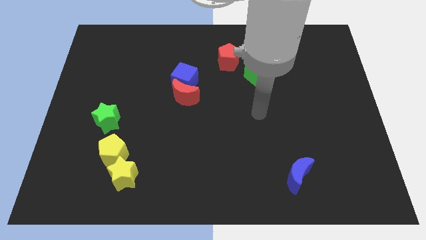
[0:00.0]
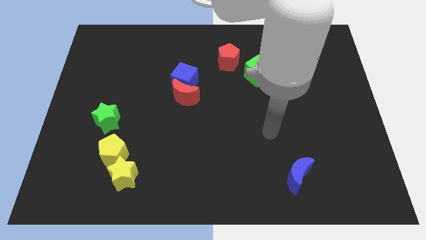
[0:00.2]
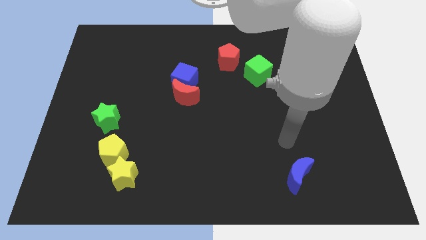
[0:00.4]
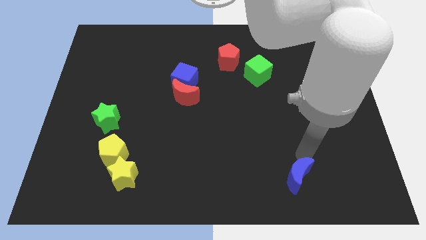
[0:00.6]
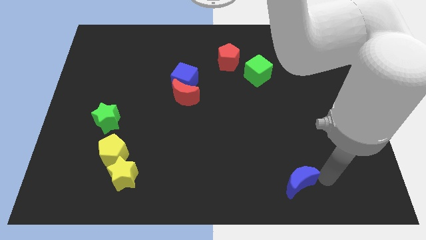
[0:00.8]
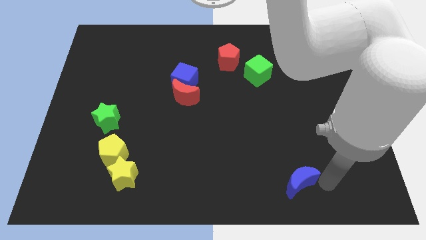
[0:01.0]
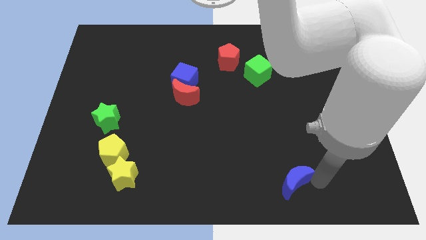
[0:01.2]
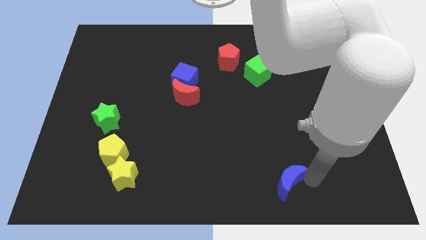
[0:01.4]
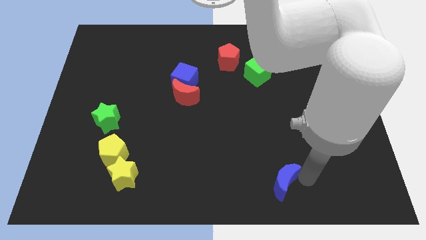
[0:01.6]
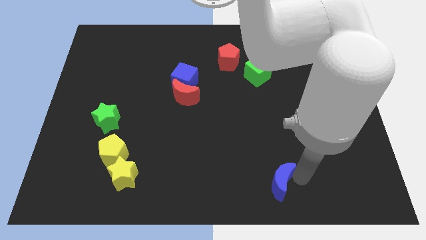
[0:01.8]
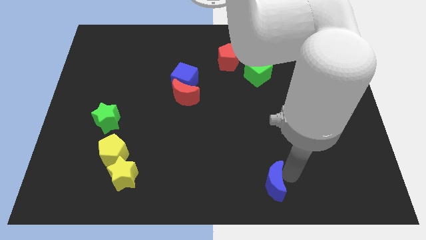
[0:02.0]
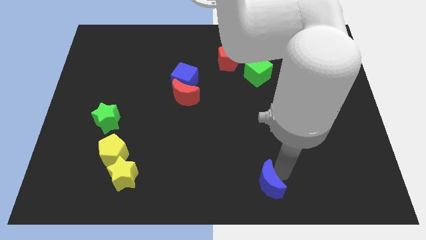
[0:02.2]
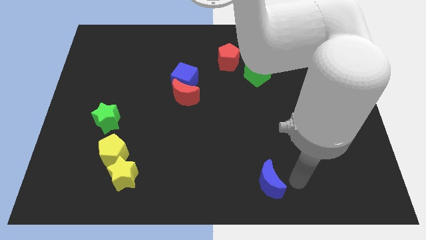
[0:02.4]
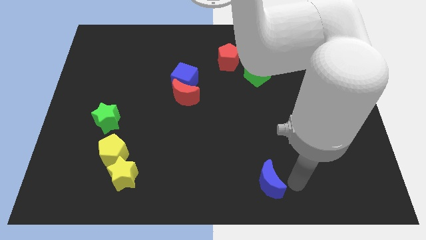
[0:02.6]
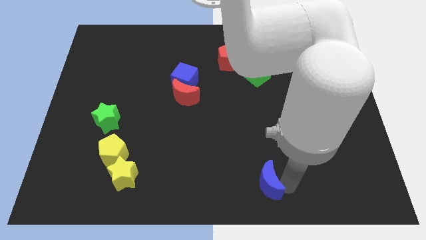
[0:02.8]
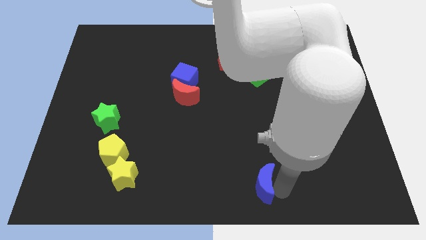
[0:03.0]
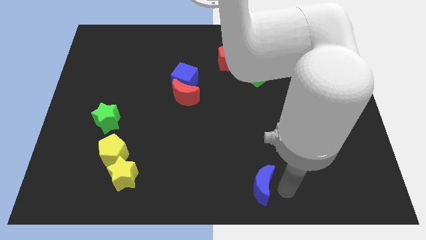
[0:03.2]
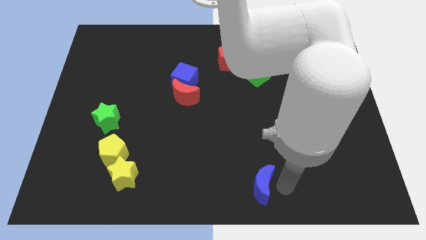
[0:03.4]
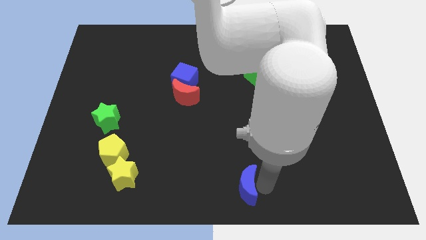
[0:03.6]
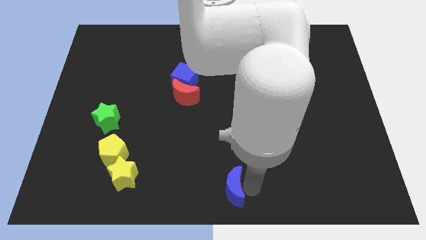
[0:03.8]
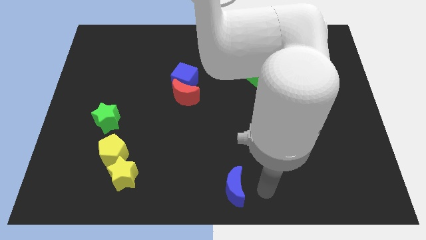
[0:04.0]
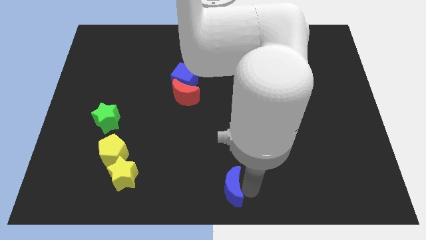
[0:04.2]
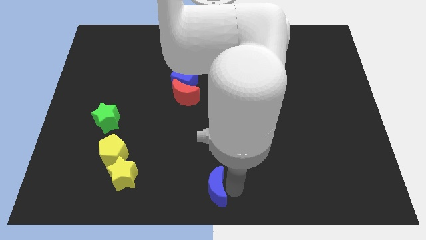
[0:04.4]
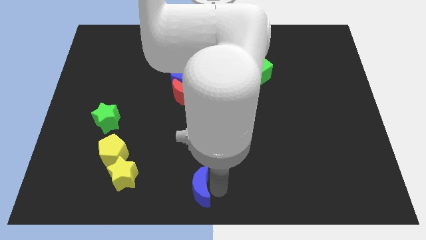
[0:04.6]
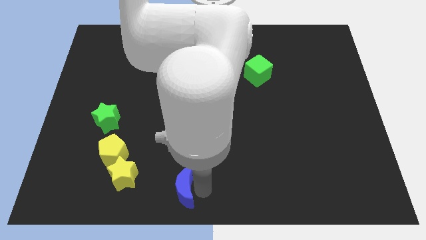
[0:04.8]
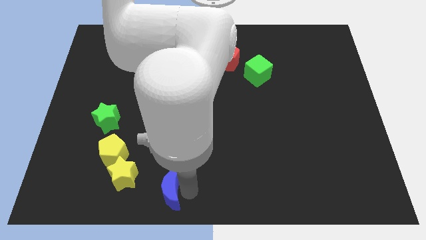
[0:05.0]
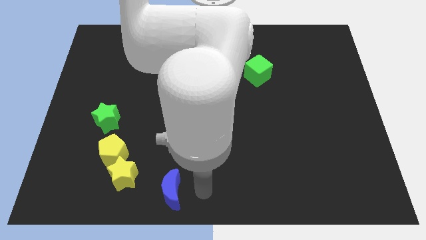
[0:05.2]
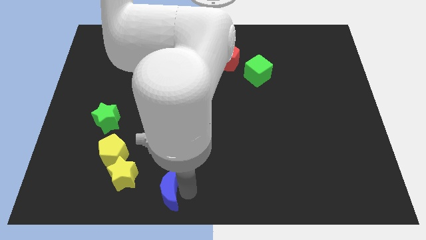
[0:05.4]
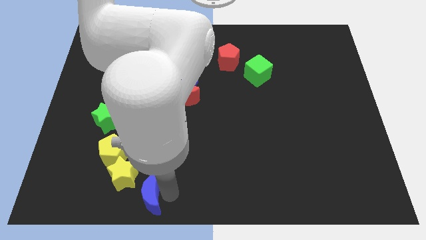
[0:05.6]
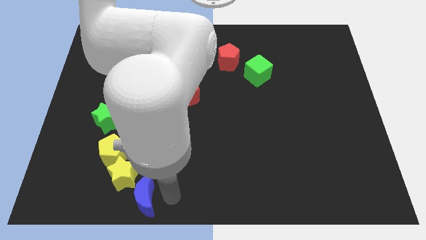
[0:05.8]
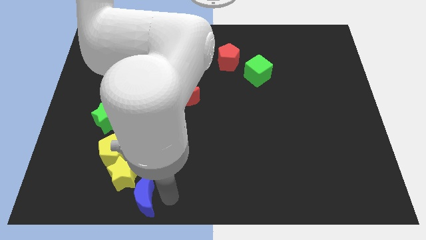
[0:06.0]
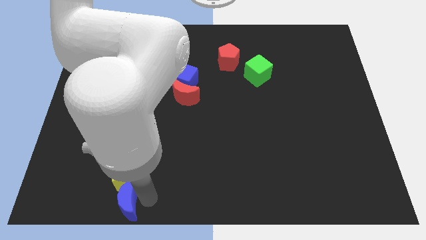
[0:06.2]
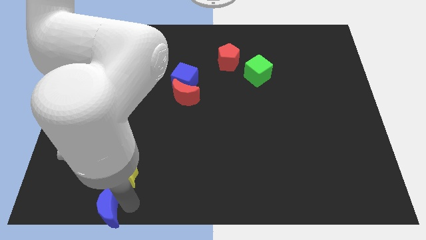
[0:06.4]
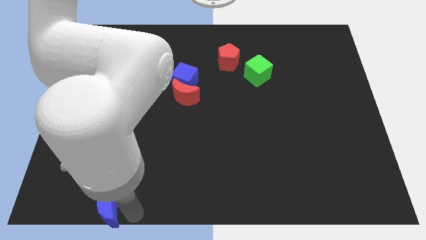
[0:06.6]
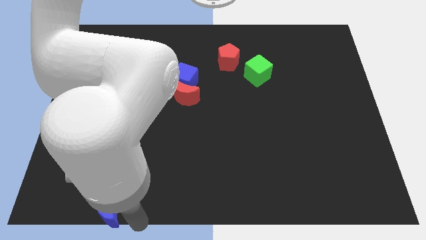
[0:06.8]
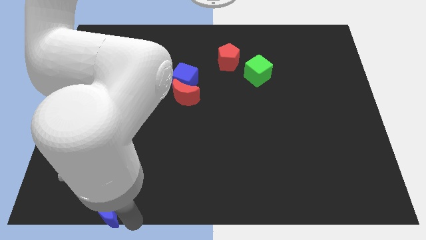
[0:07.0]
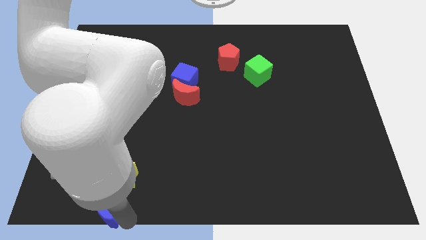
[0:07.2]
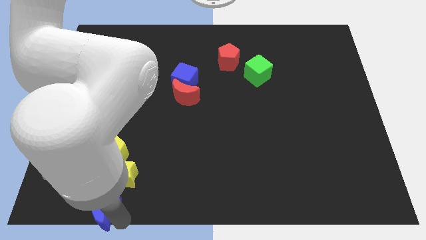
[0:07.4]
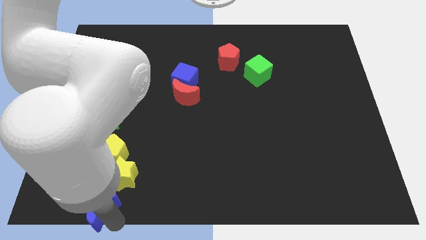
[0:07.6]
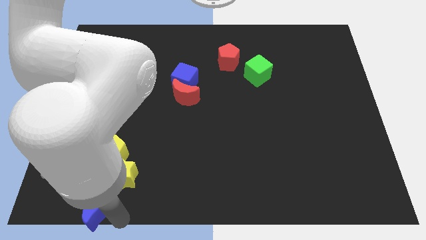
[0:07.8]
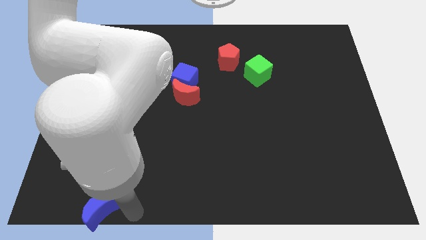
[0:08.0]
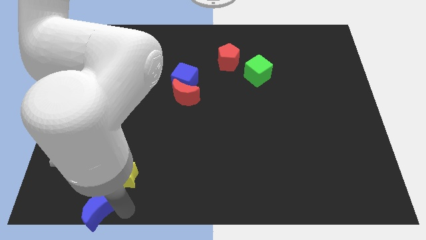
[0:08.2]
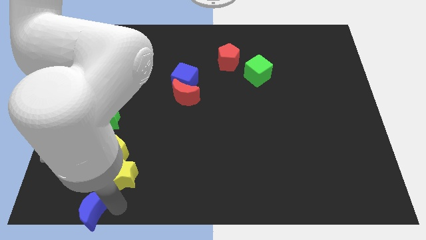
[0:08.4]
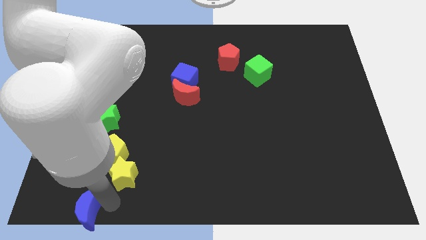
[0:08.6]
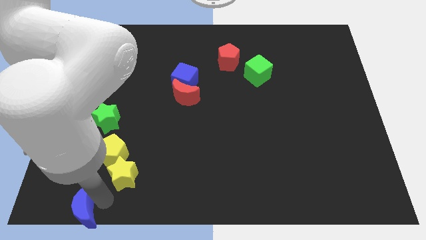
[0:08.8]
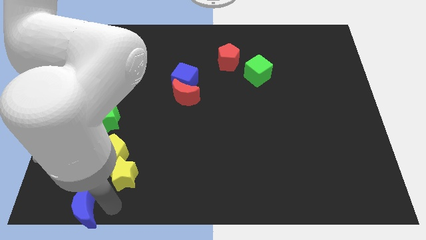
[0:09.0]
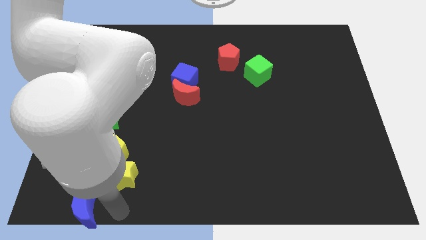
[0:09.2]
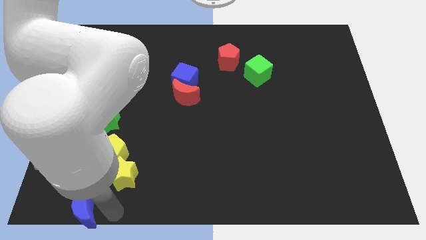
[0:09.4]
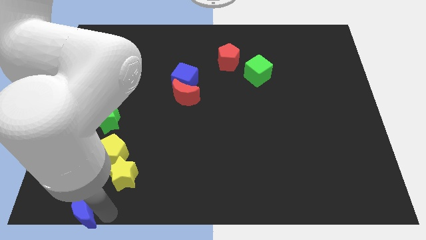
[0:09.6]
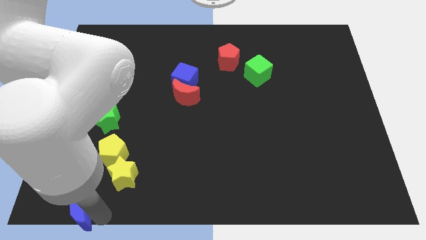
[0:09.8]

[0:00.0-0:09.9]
slide the blue moon to the bottom left corner

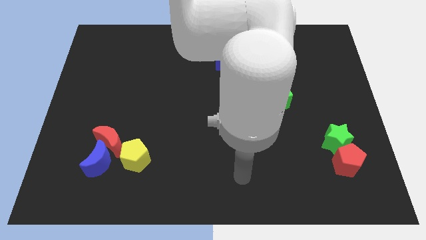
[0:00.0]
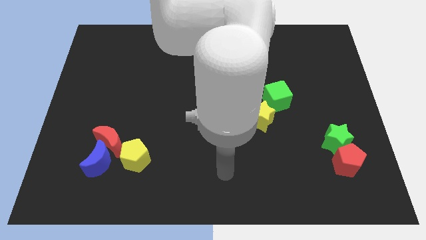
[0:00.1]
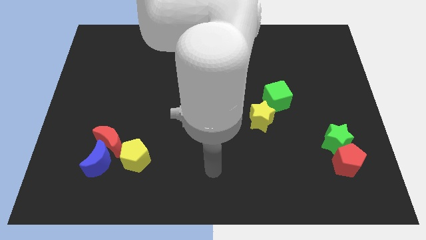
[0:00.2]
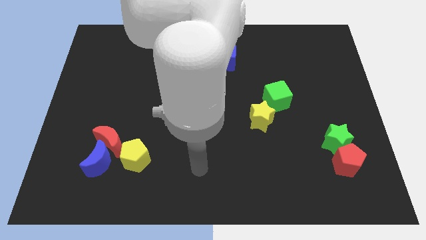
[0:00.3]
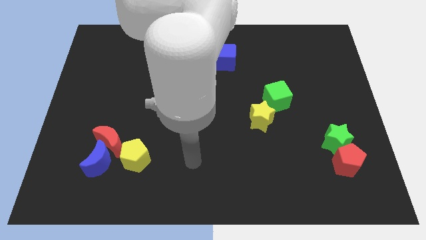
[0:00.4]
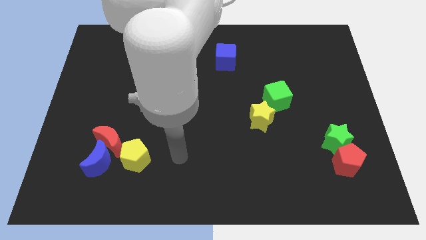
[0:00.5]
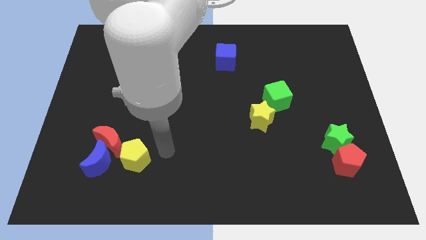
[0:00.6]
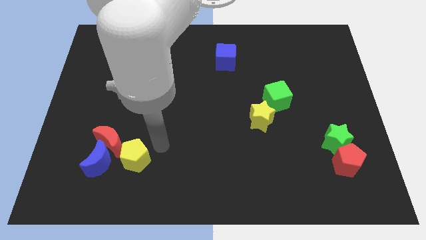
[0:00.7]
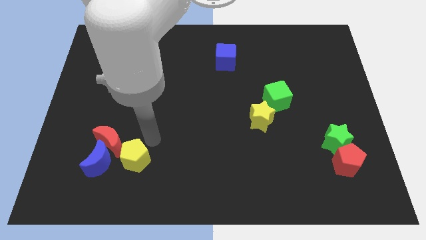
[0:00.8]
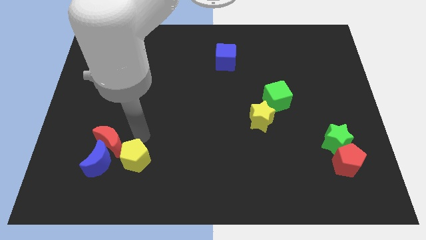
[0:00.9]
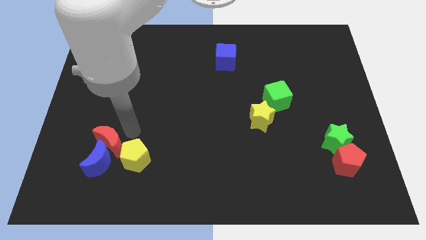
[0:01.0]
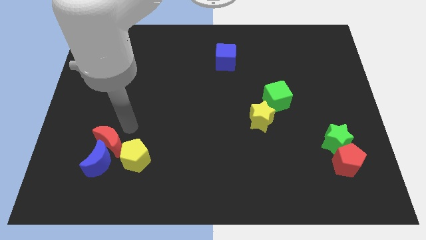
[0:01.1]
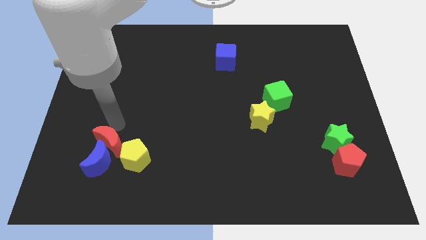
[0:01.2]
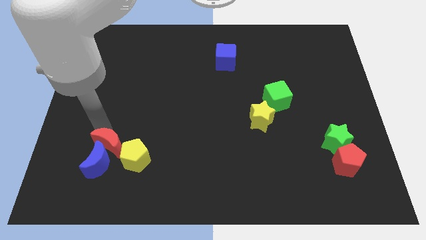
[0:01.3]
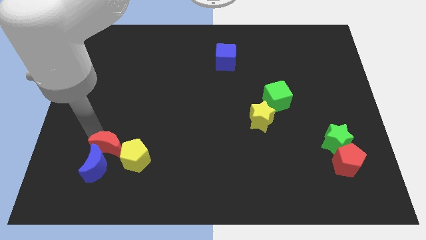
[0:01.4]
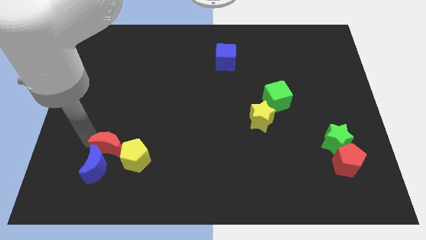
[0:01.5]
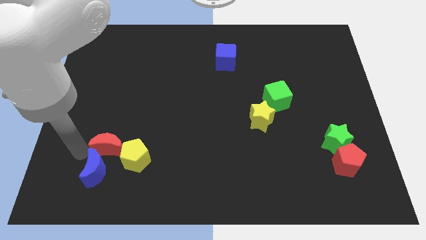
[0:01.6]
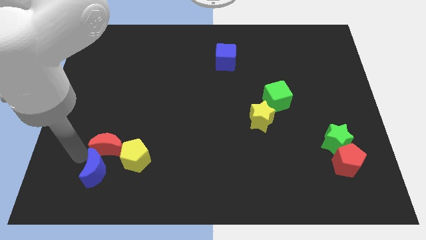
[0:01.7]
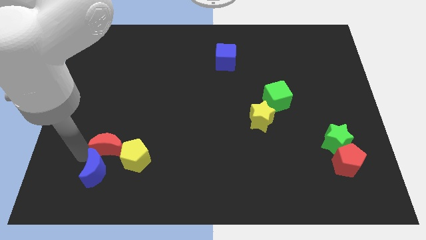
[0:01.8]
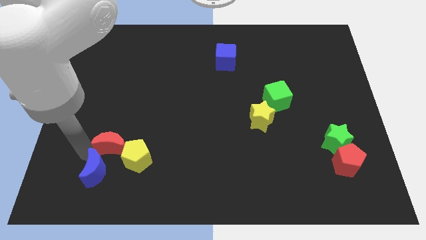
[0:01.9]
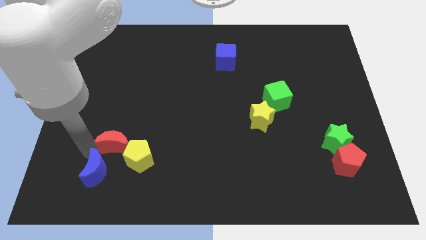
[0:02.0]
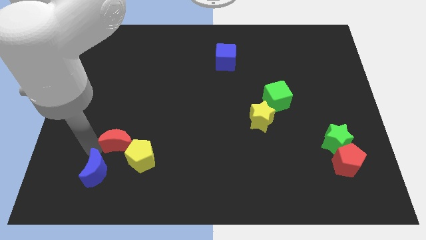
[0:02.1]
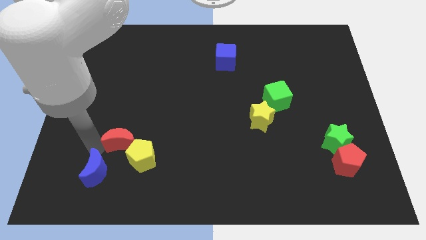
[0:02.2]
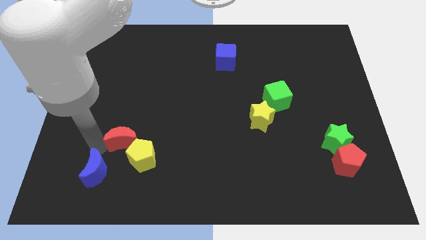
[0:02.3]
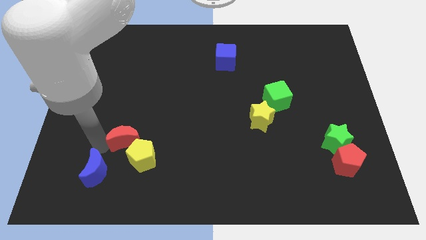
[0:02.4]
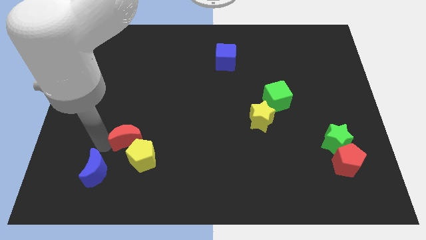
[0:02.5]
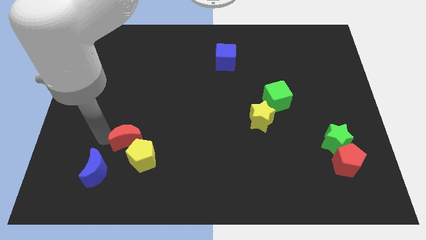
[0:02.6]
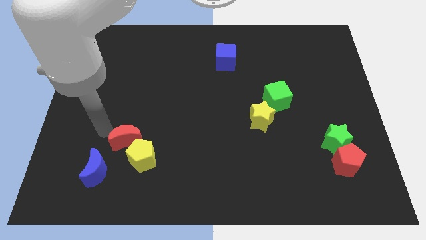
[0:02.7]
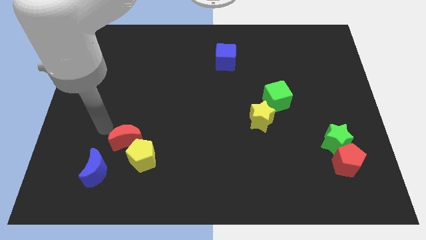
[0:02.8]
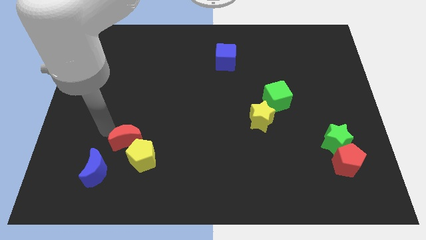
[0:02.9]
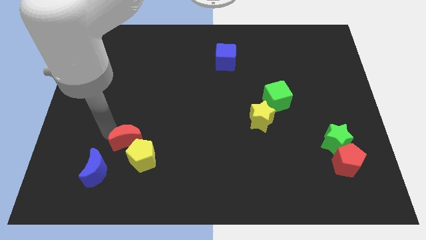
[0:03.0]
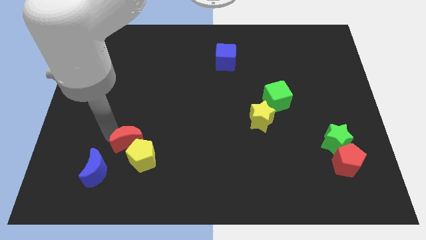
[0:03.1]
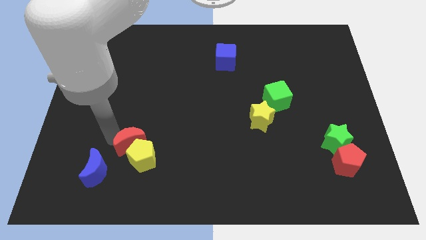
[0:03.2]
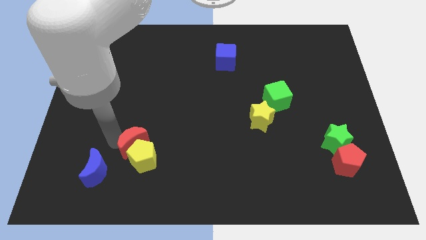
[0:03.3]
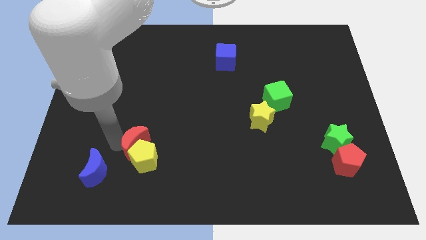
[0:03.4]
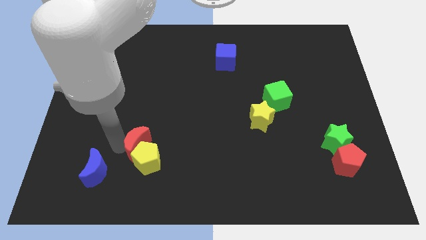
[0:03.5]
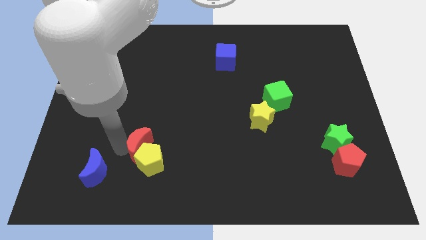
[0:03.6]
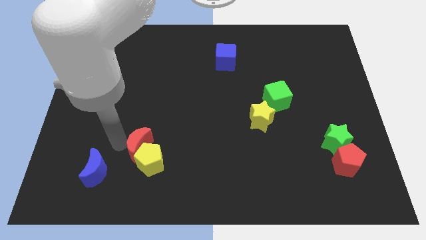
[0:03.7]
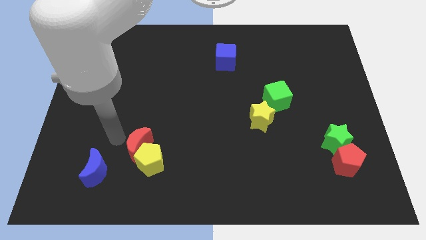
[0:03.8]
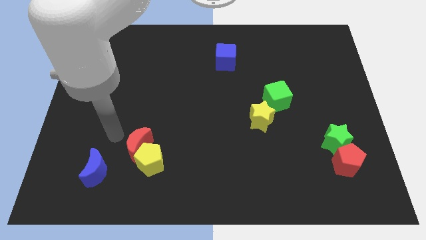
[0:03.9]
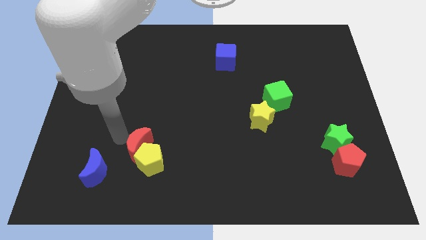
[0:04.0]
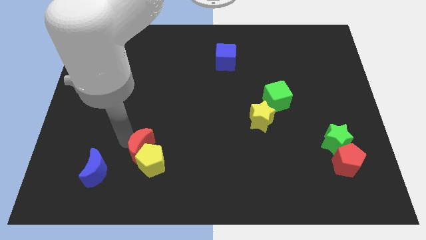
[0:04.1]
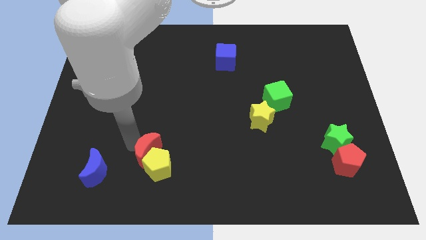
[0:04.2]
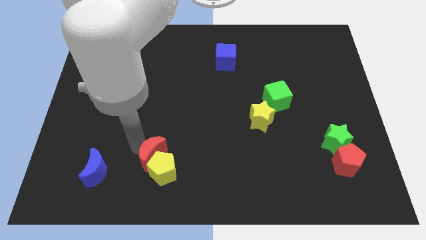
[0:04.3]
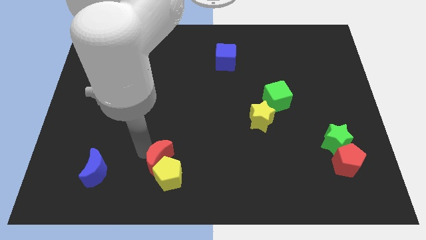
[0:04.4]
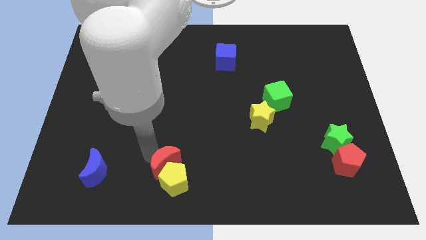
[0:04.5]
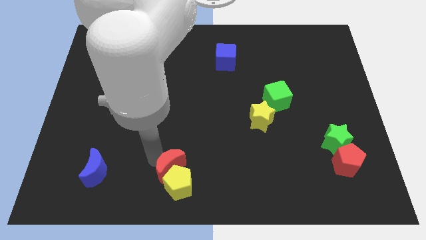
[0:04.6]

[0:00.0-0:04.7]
push the red moon to the bottom
